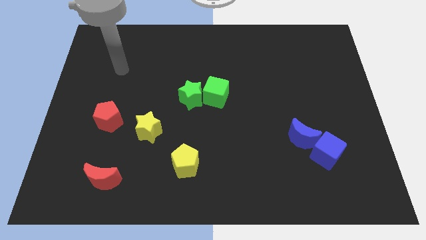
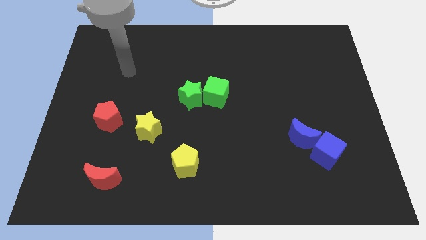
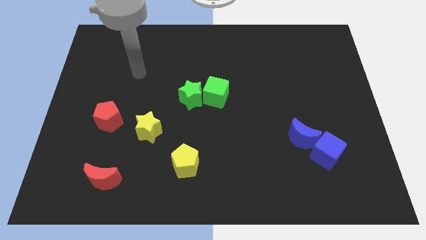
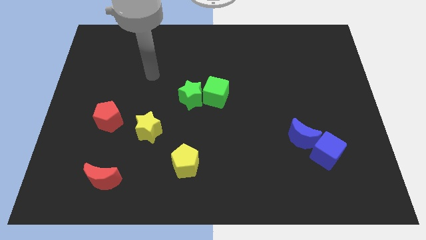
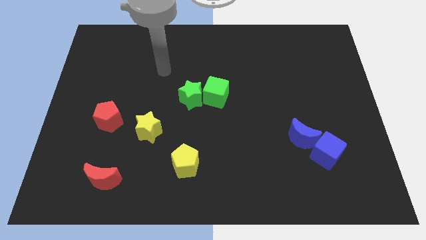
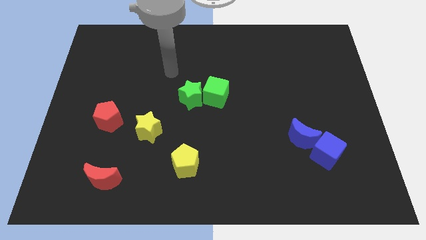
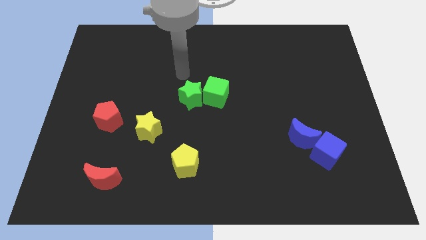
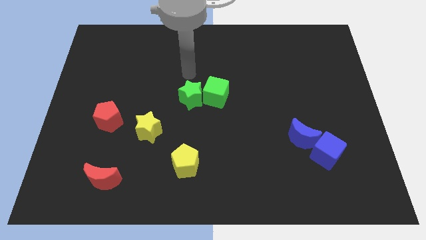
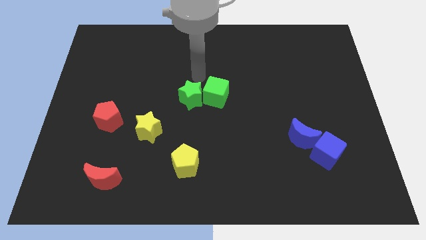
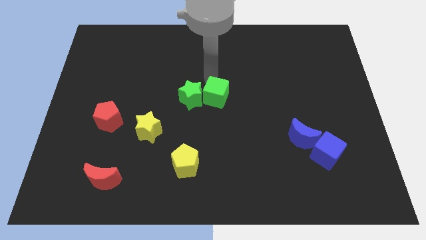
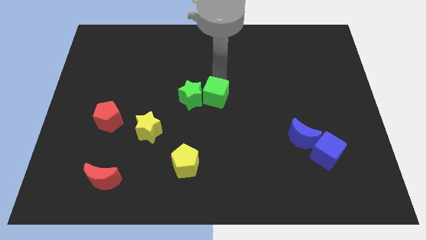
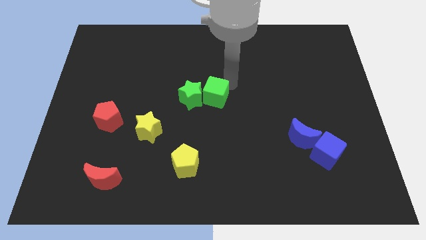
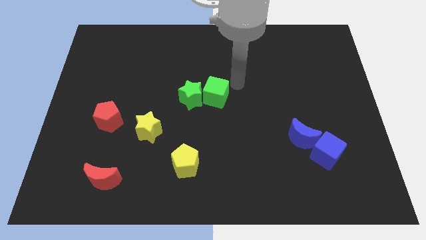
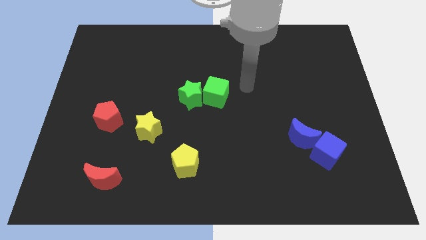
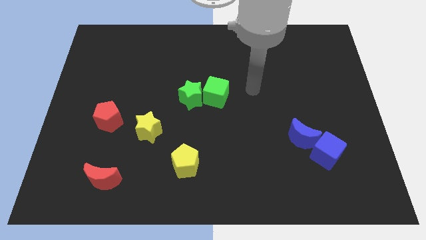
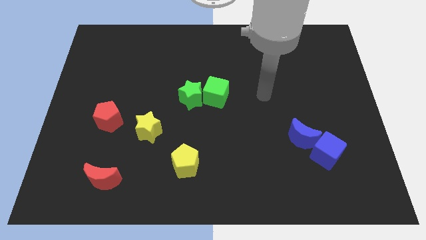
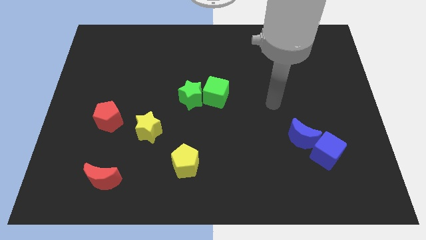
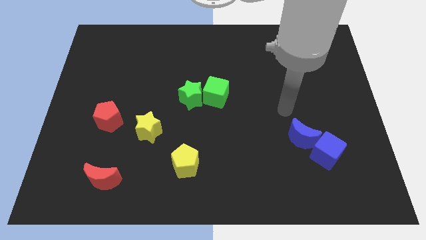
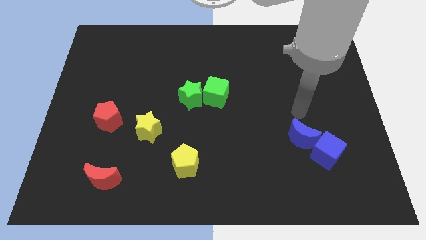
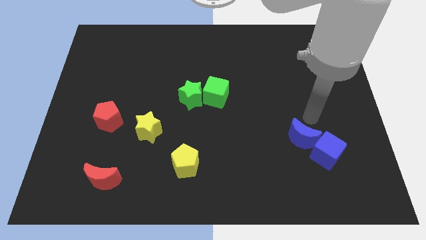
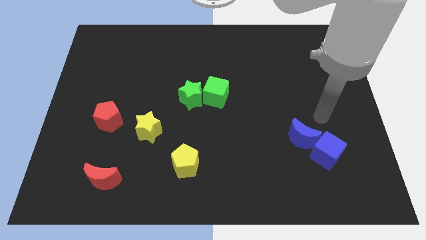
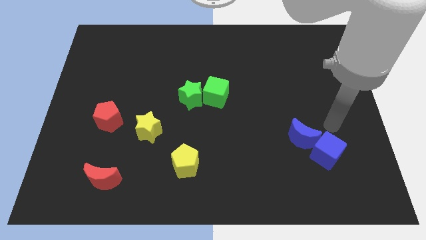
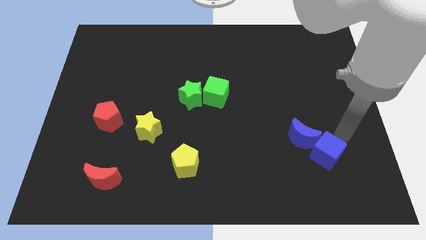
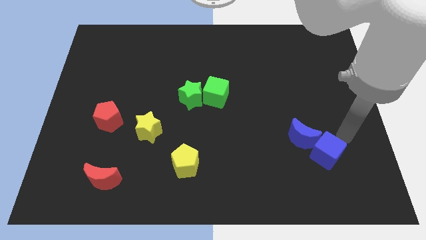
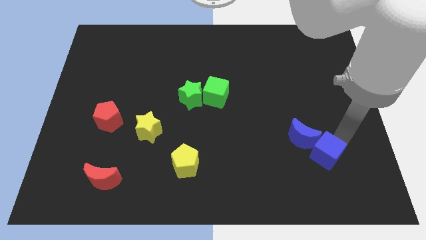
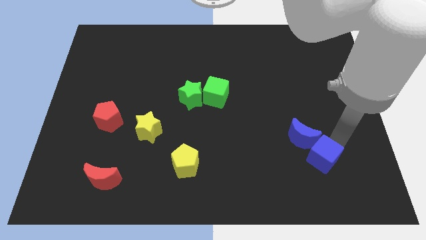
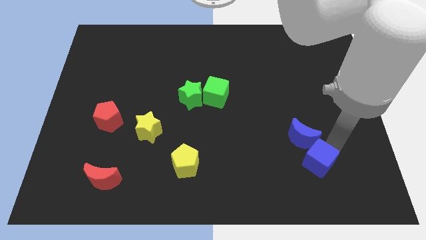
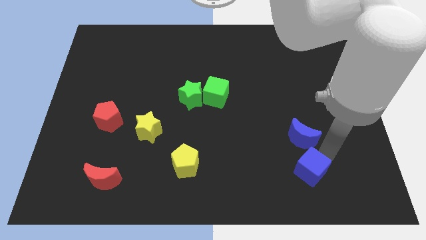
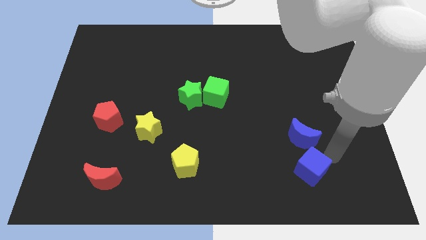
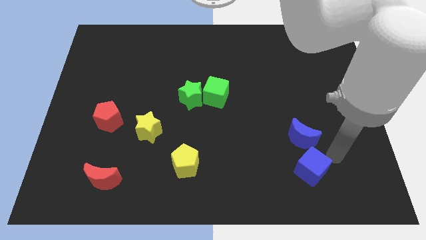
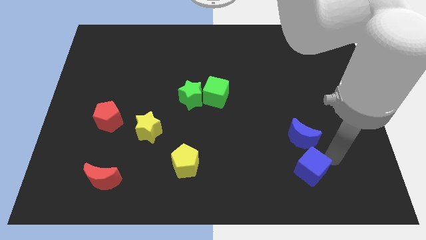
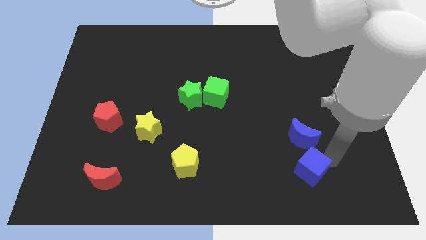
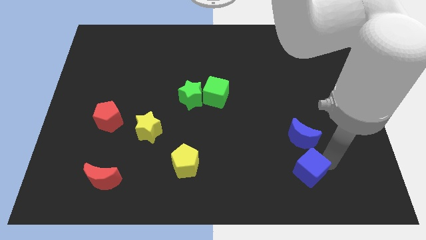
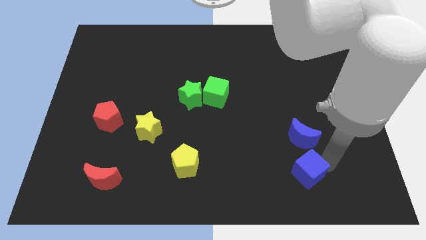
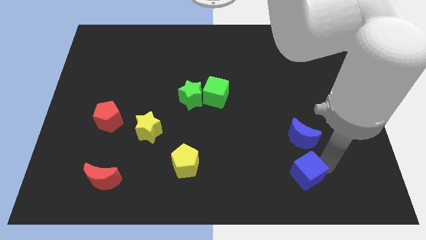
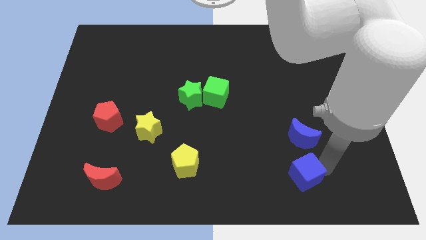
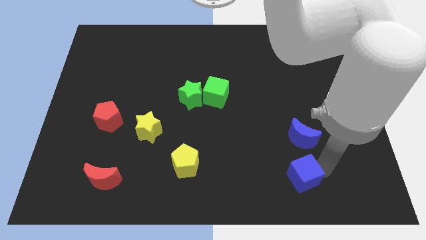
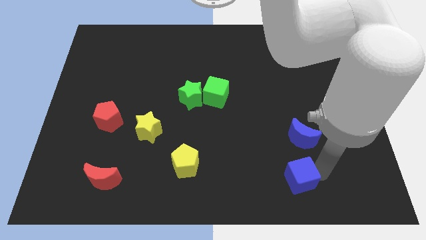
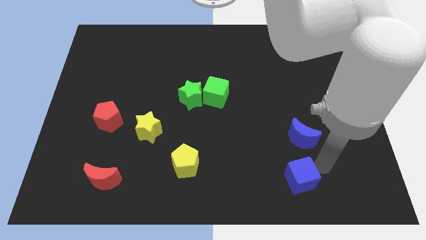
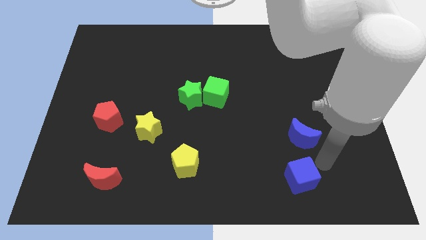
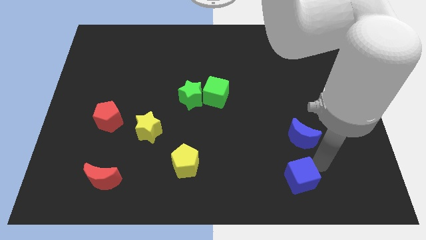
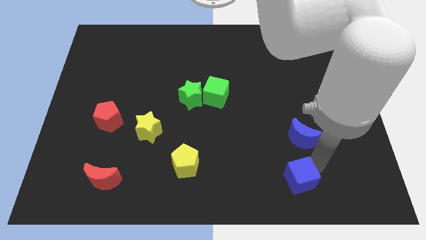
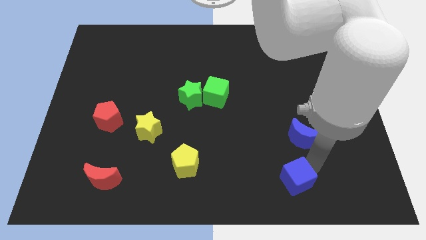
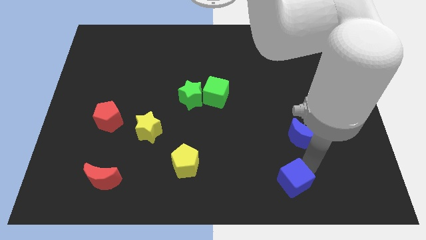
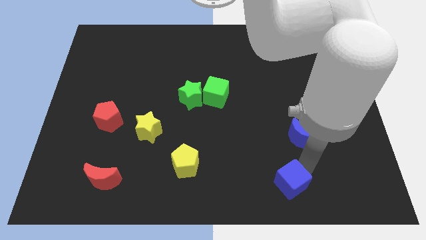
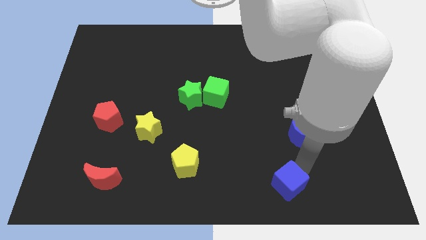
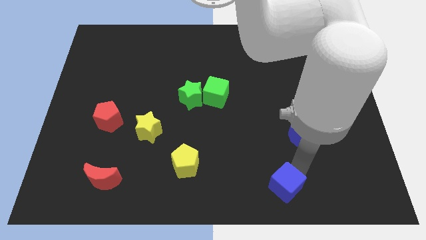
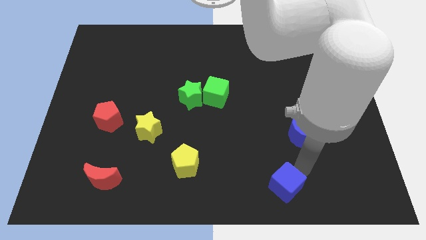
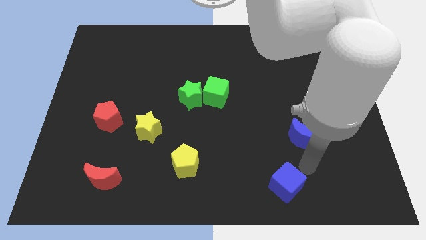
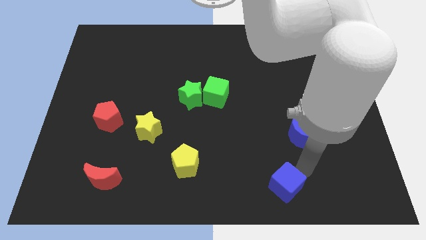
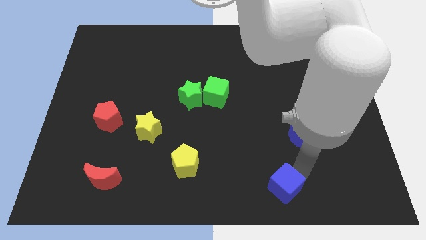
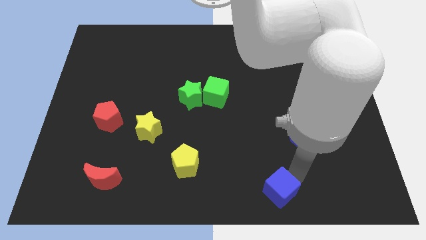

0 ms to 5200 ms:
move the blue cube to the bottom

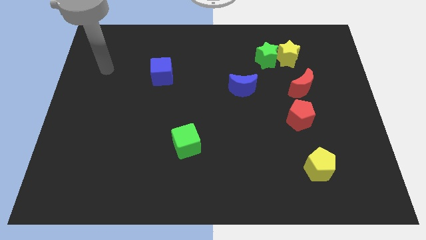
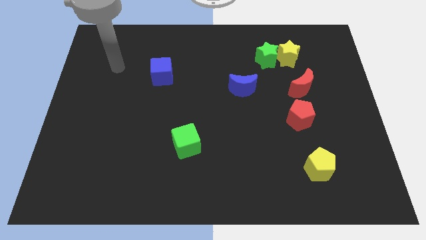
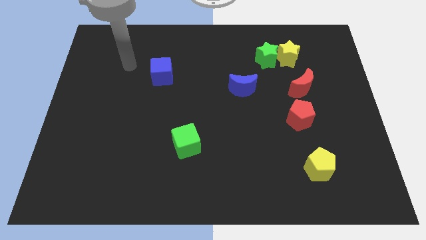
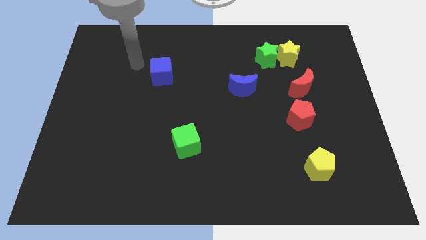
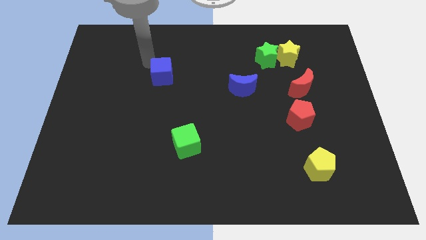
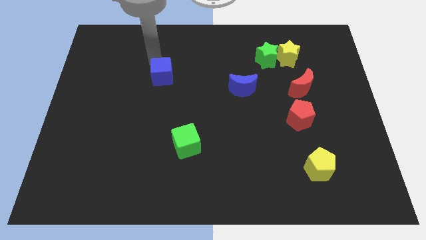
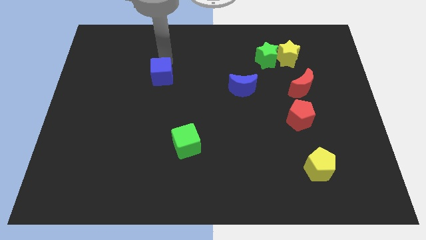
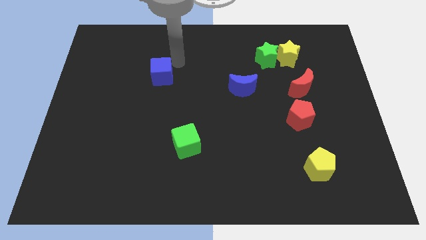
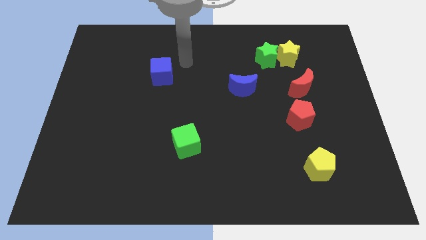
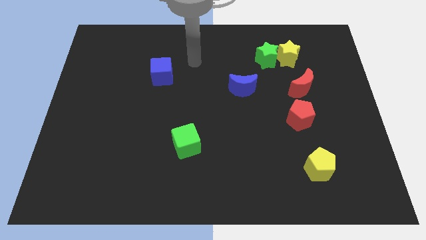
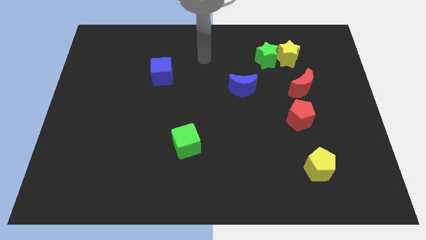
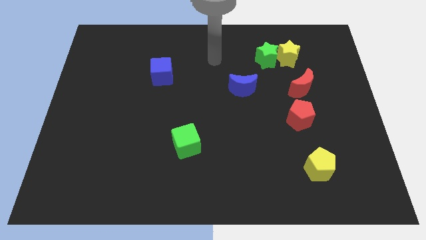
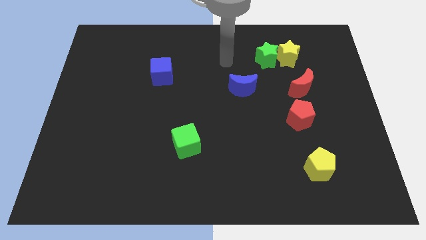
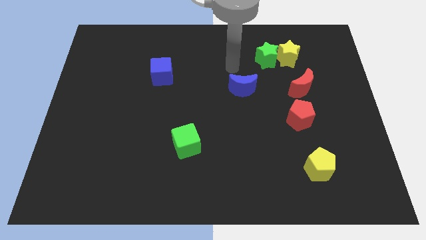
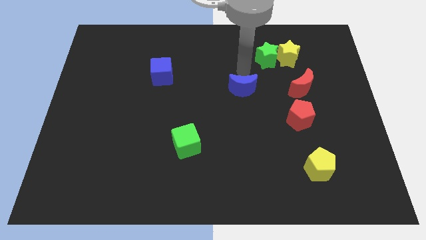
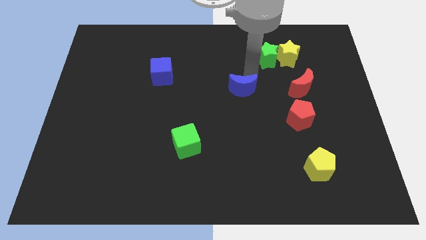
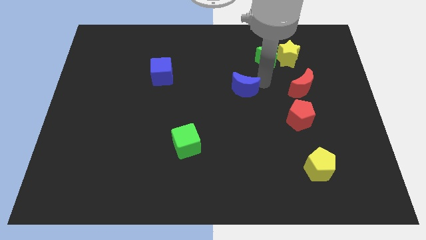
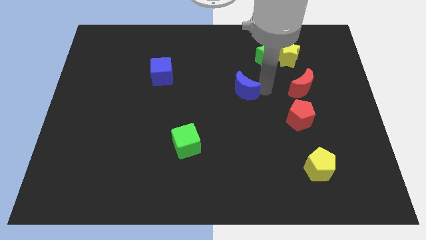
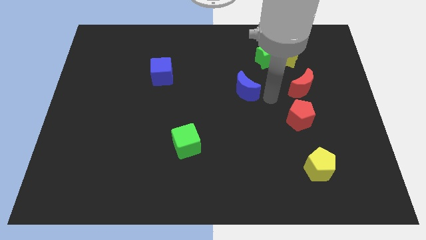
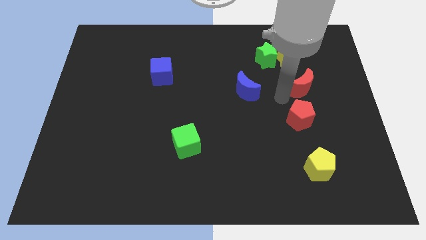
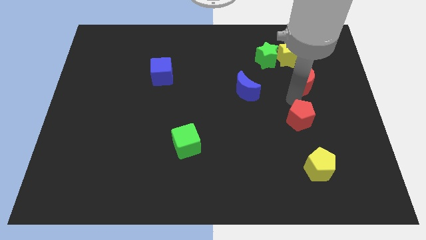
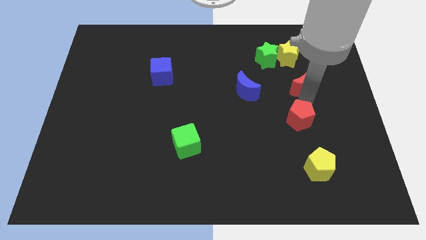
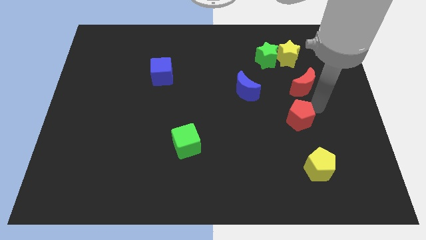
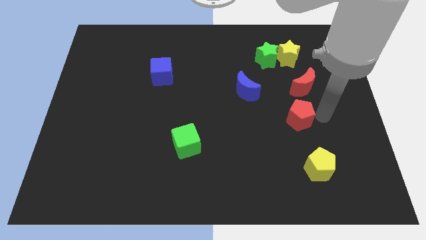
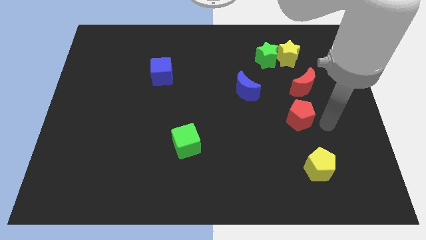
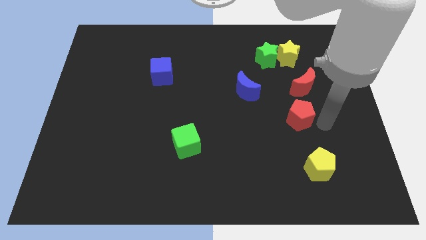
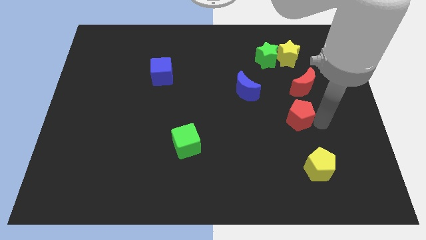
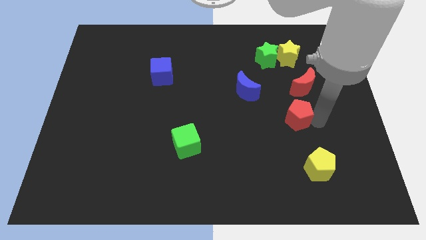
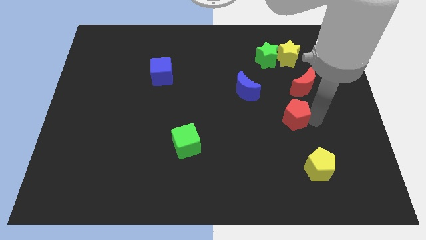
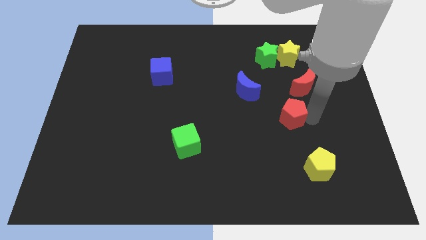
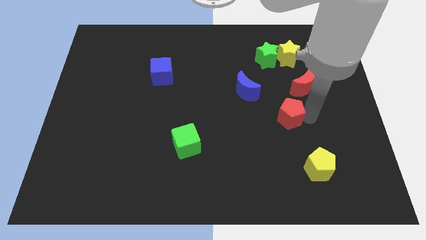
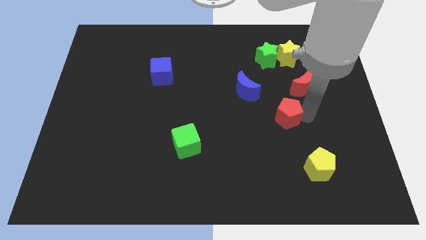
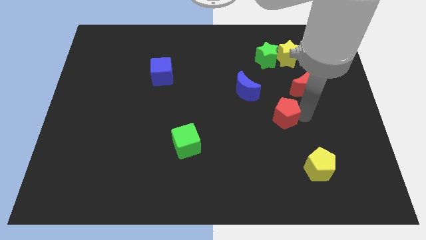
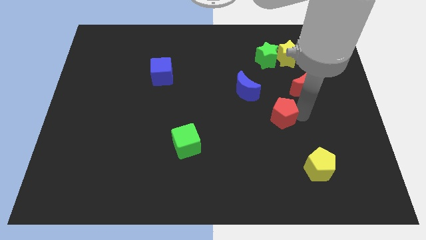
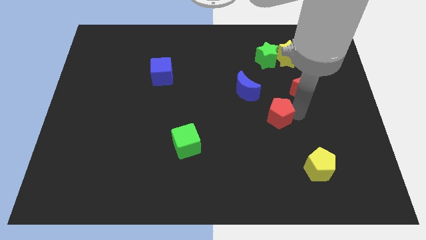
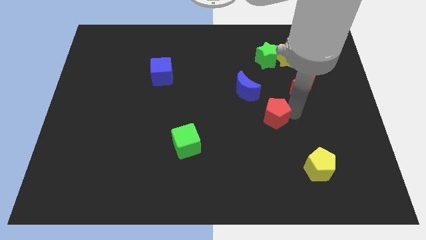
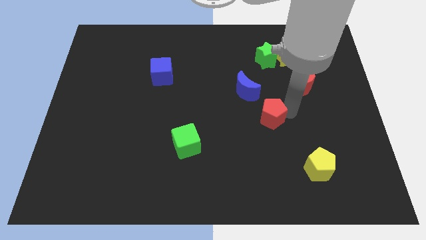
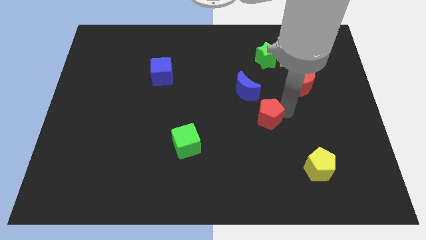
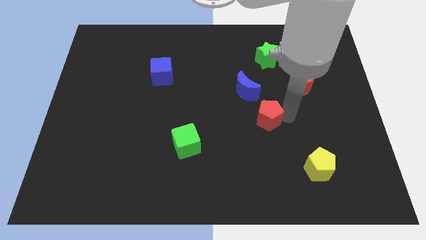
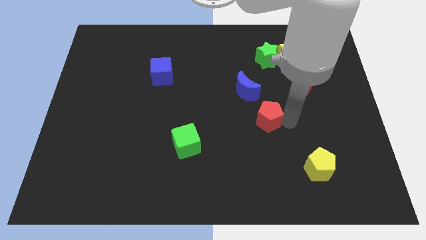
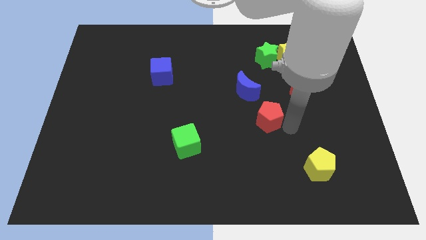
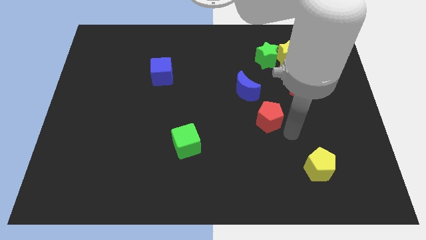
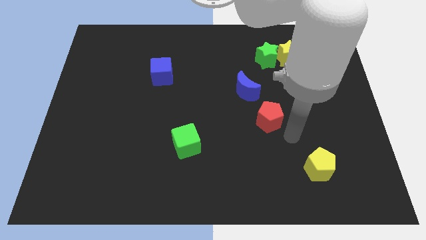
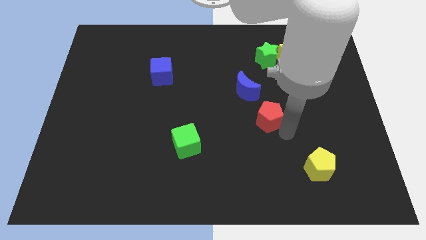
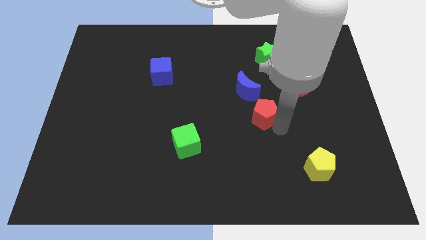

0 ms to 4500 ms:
move the red pentagon to the center
